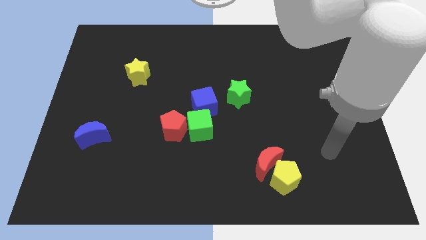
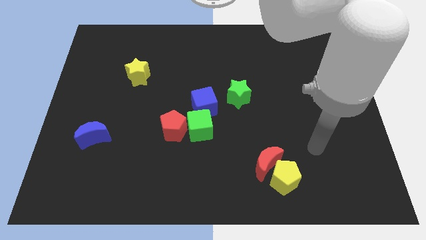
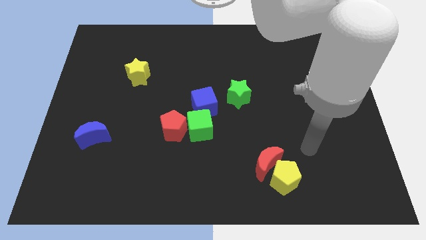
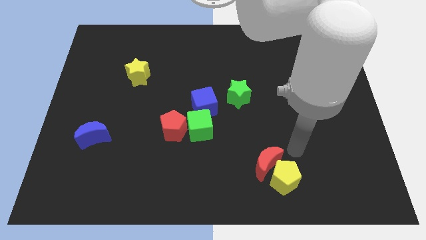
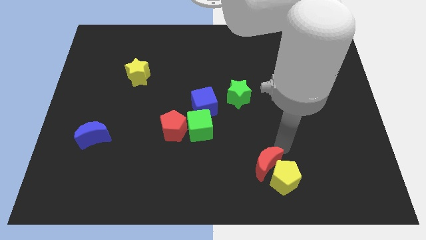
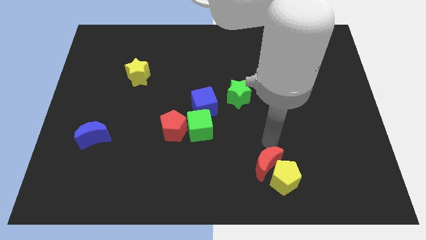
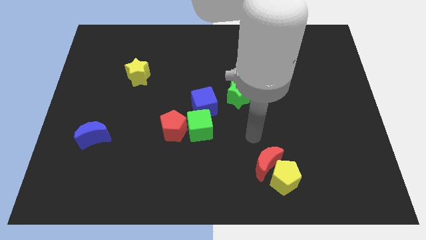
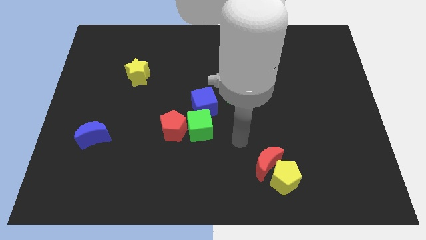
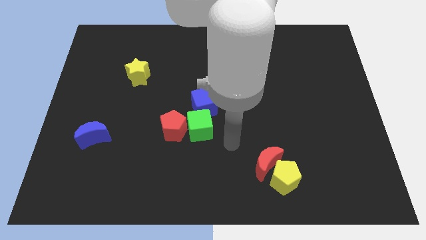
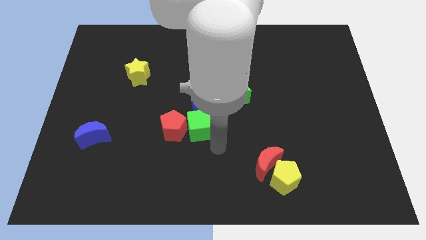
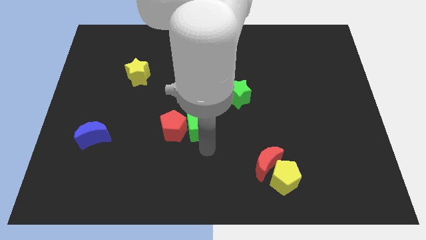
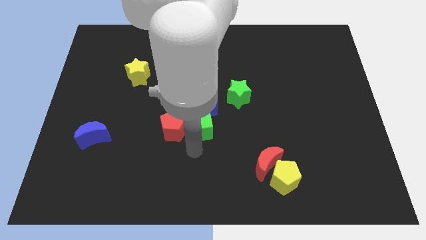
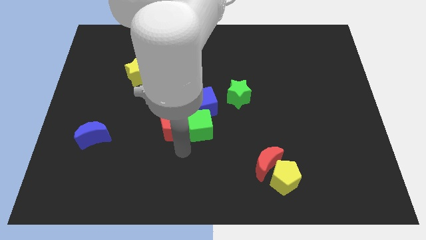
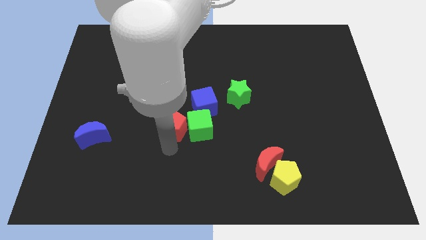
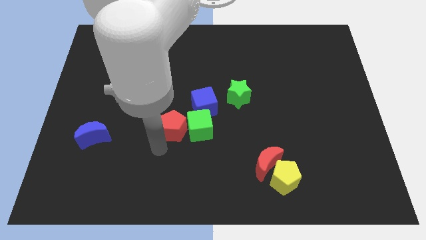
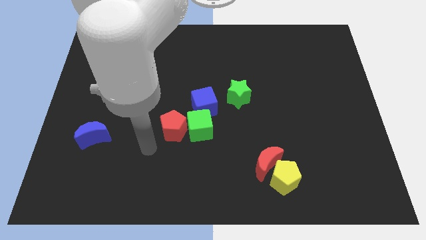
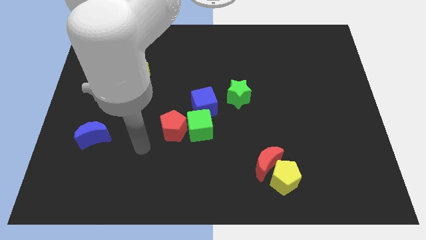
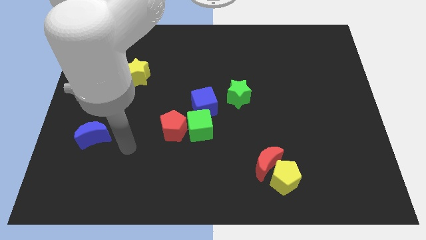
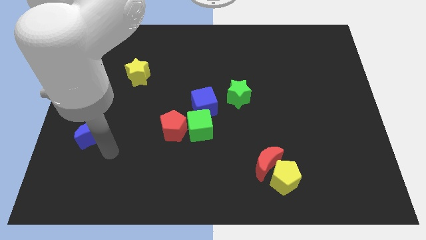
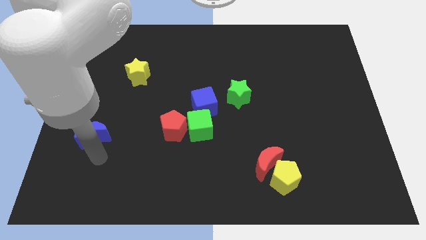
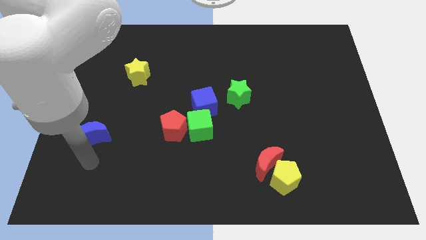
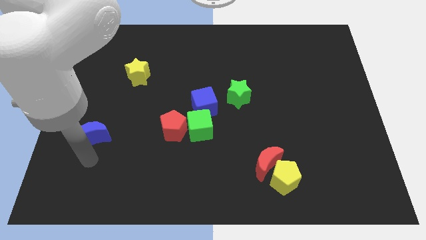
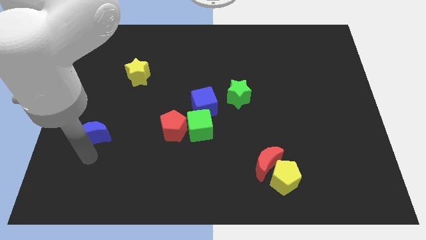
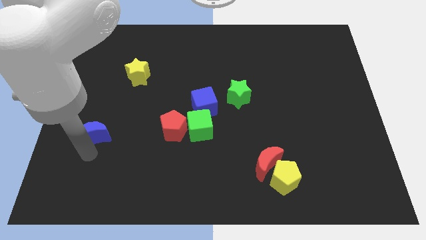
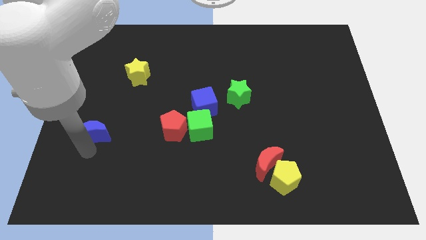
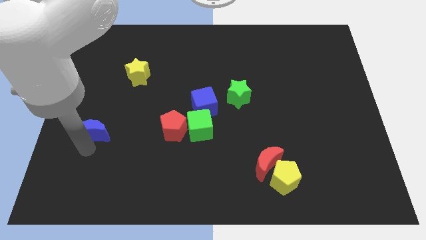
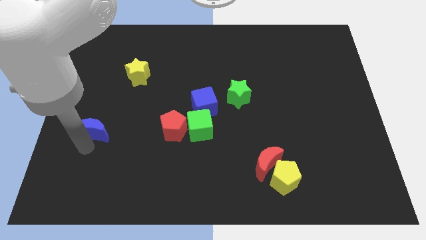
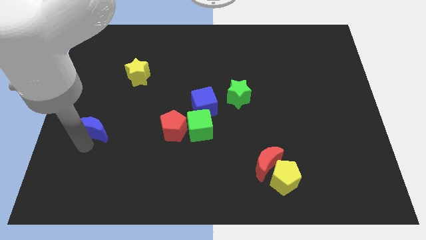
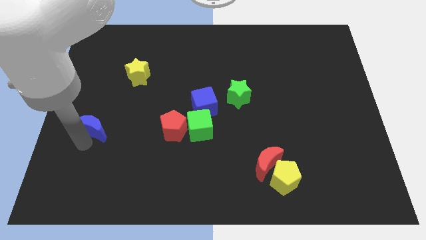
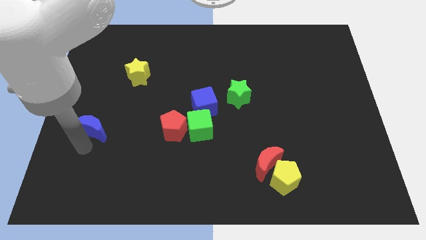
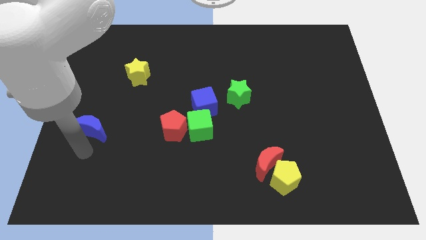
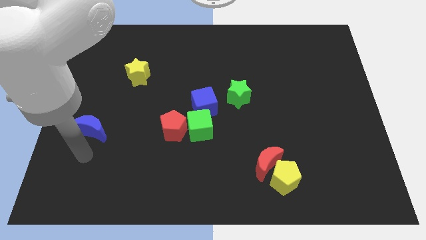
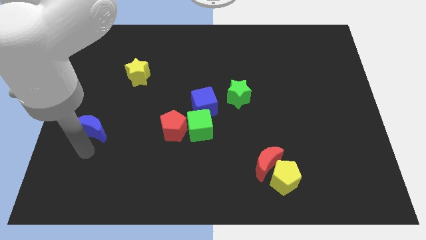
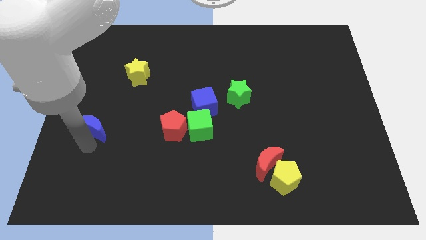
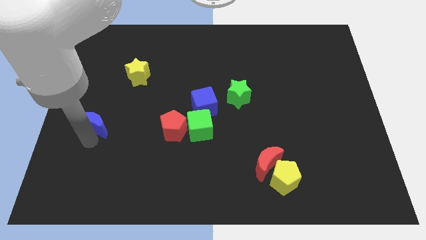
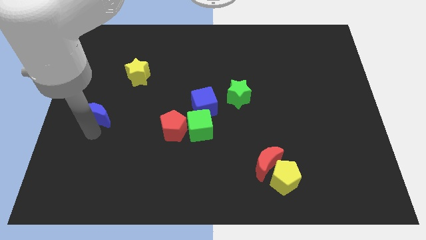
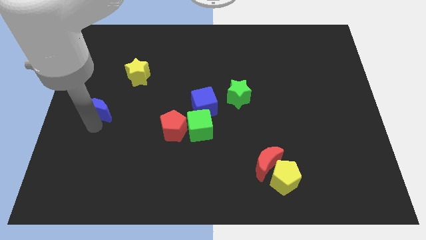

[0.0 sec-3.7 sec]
push the blue moon a bit upwards

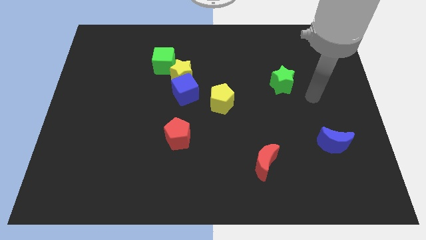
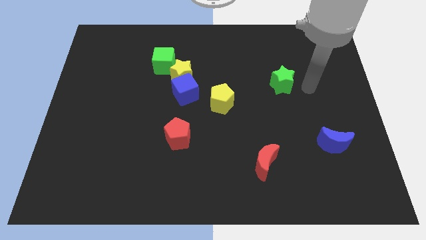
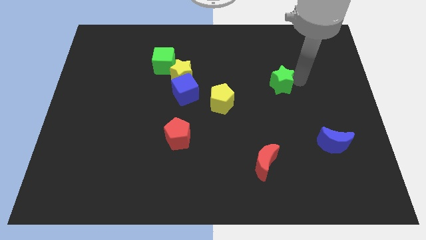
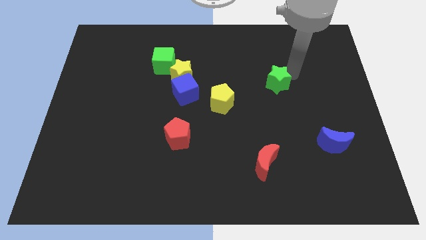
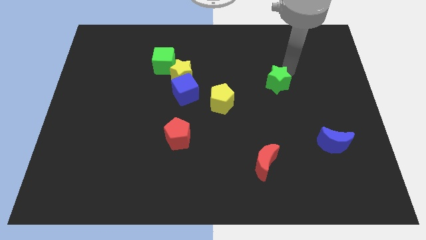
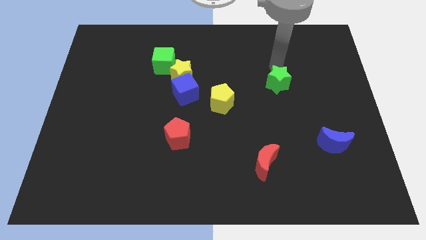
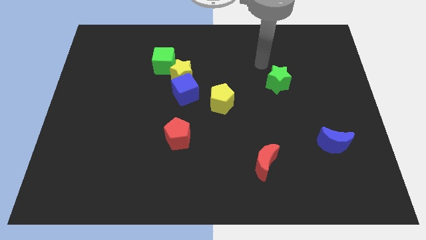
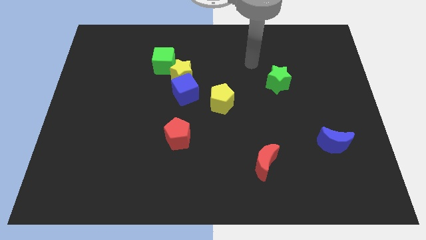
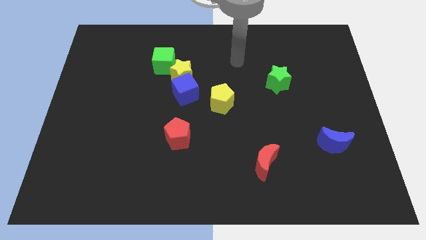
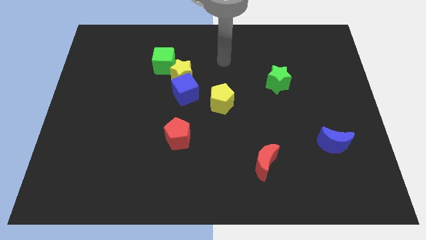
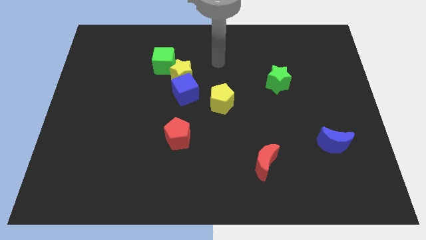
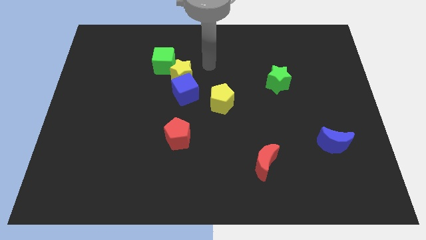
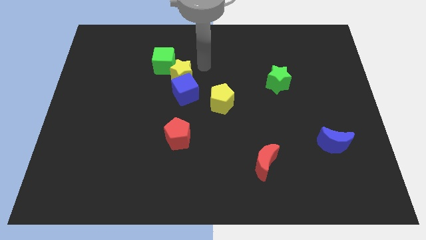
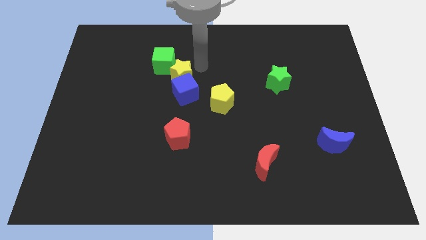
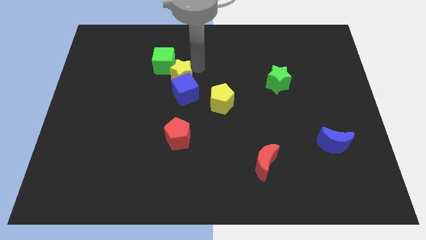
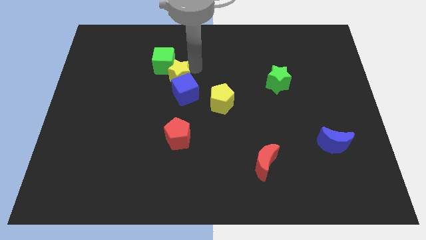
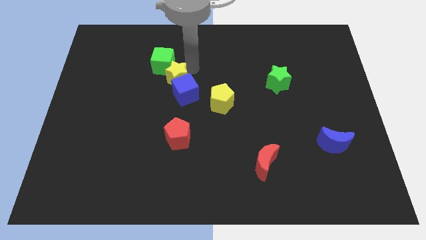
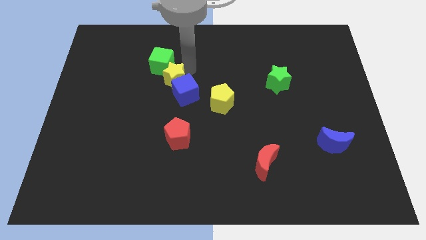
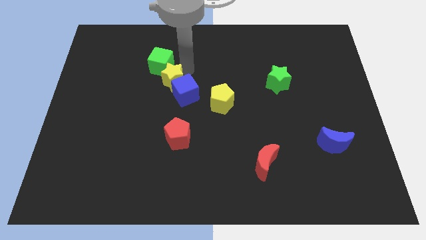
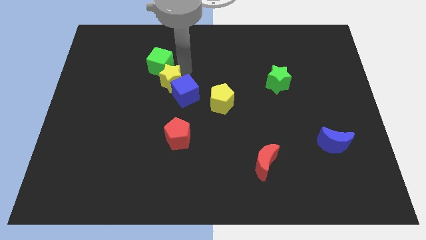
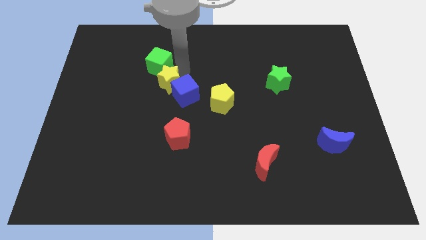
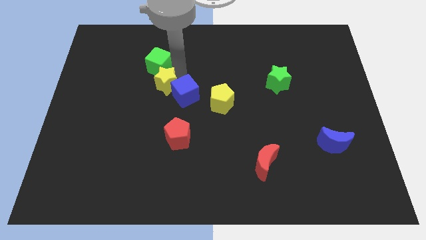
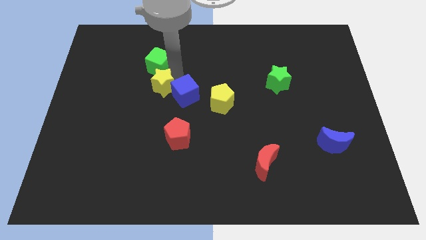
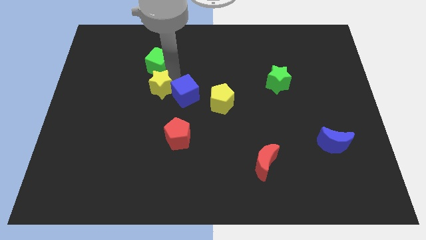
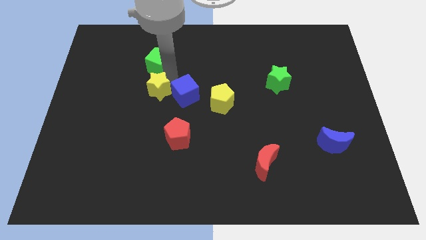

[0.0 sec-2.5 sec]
slide the yellow star a bit diagonally down and to the left

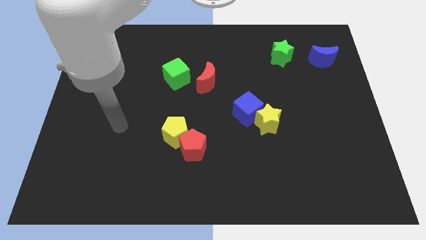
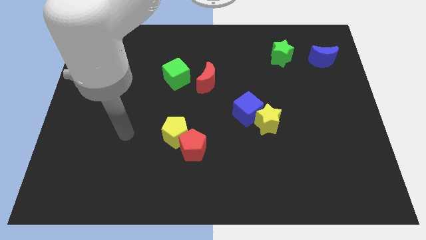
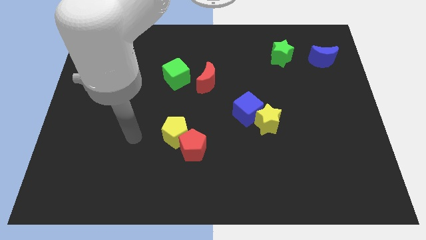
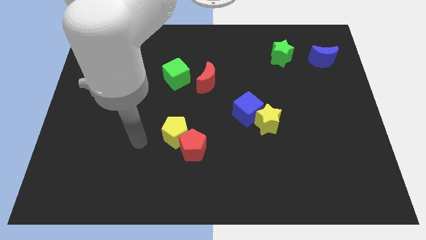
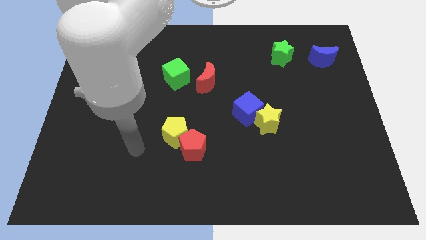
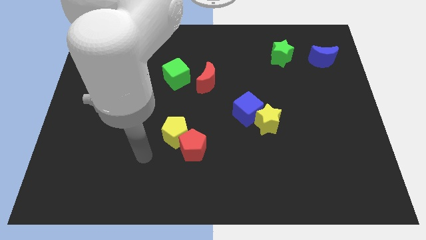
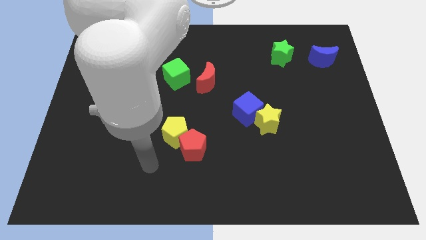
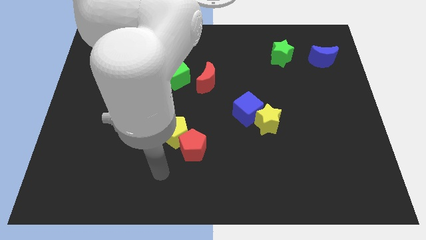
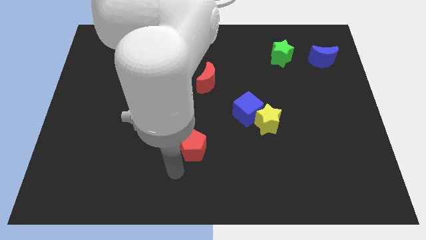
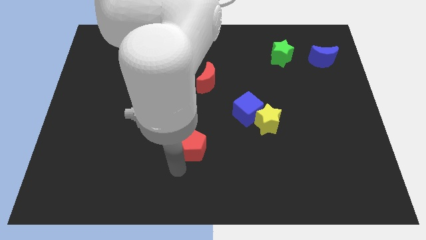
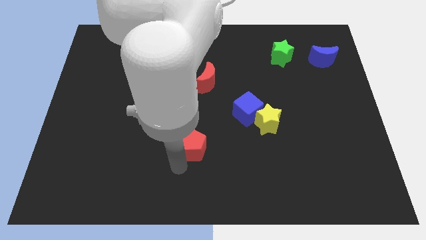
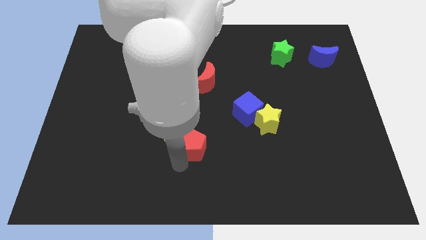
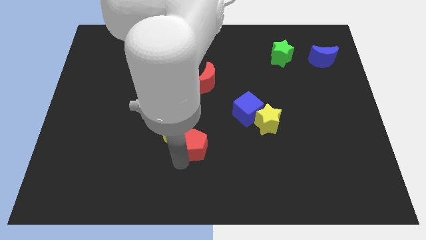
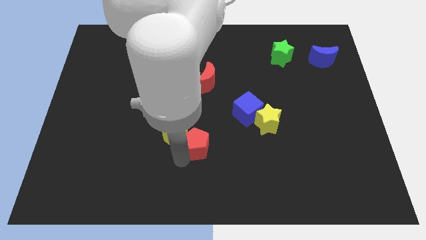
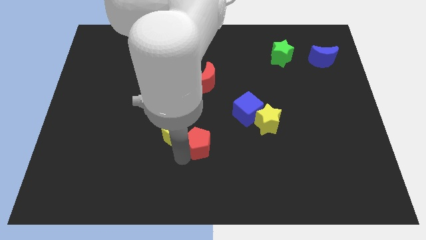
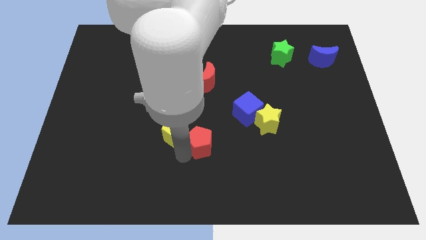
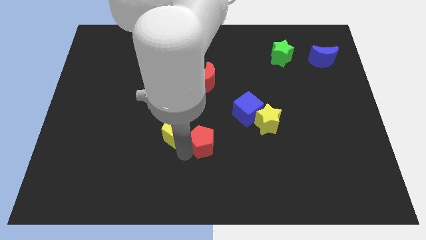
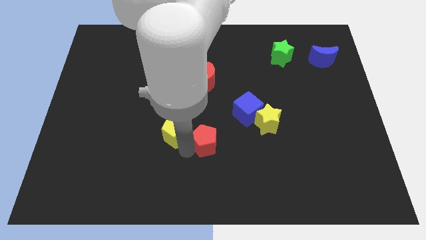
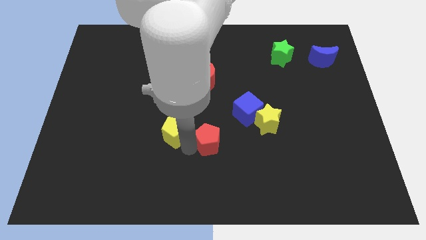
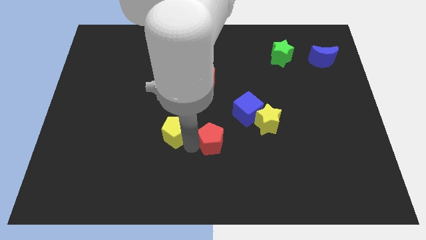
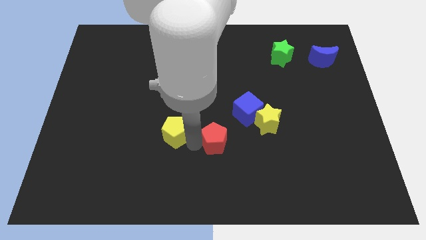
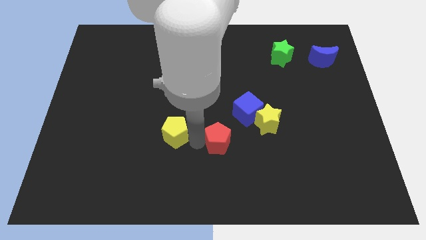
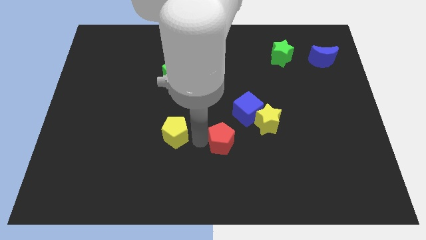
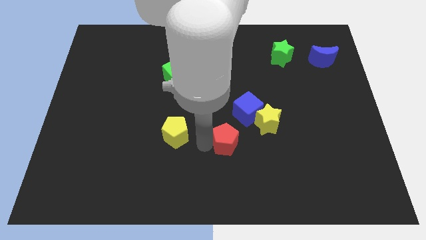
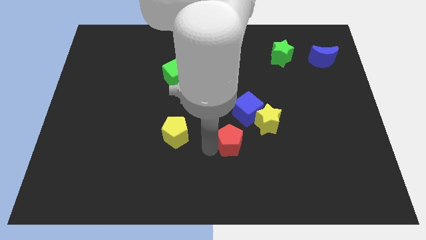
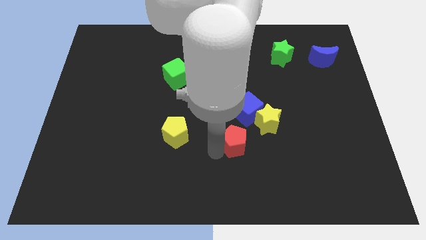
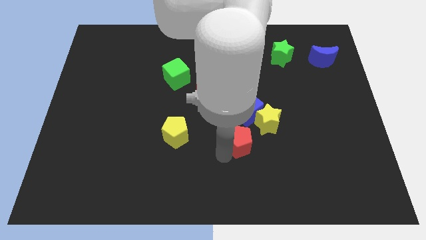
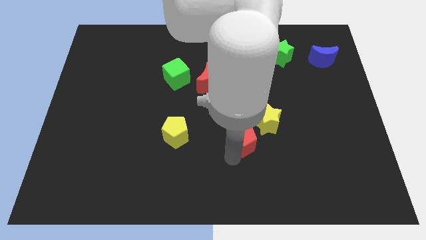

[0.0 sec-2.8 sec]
move the red pentagon slightly diagonally up and right
